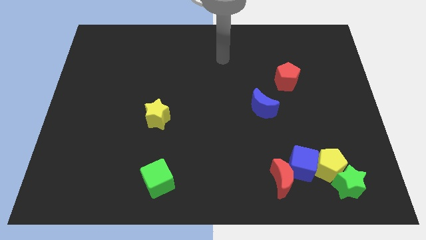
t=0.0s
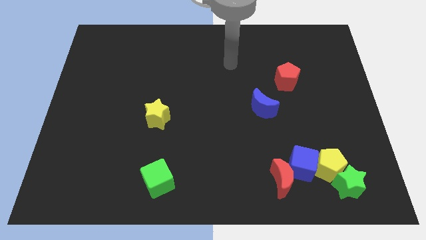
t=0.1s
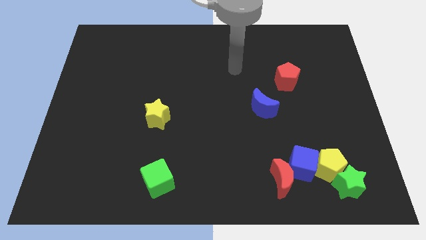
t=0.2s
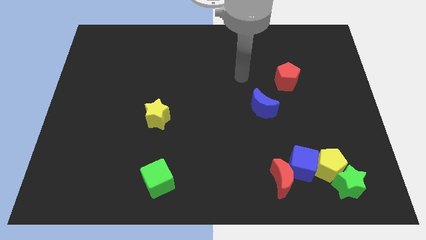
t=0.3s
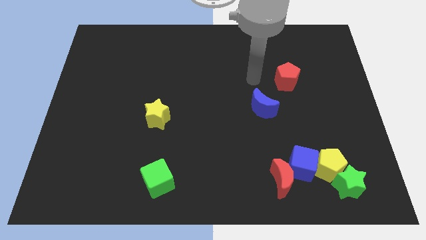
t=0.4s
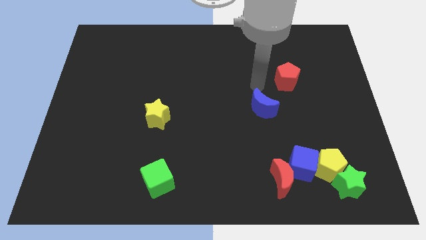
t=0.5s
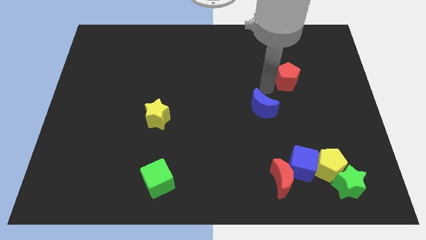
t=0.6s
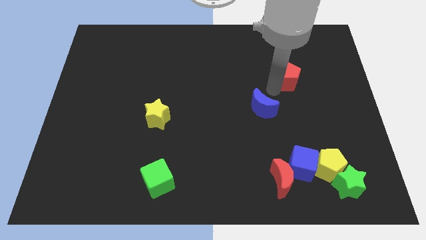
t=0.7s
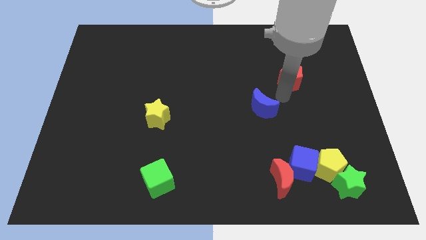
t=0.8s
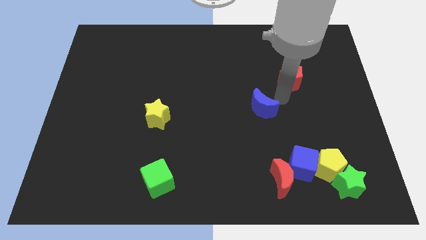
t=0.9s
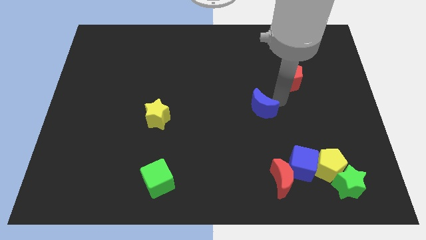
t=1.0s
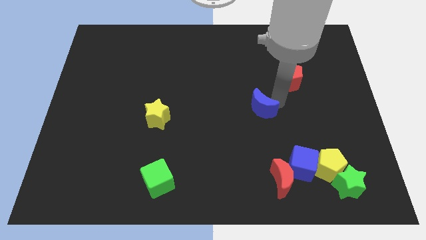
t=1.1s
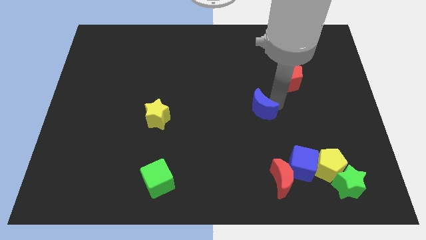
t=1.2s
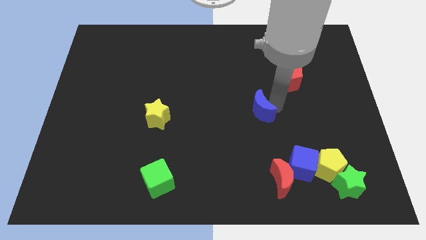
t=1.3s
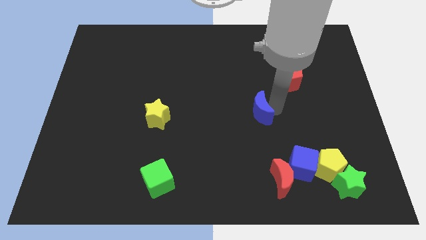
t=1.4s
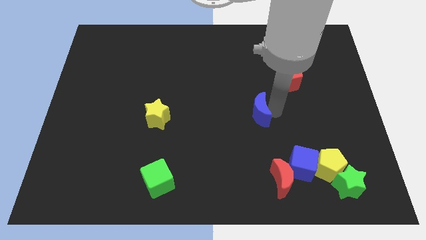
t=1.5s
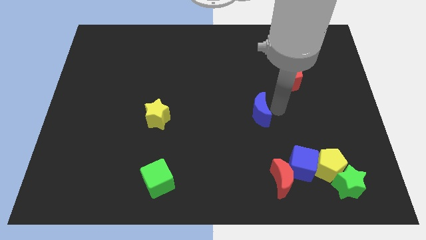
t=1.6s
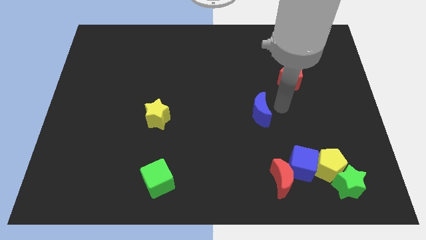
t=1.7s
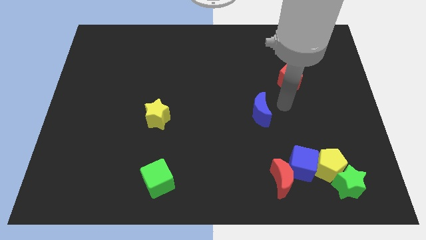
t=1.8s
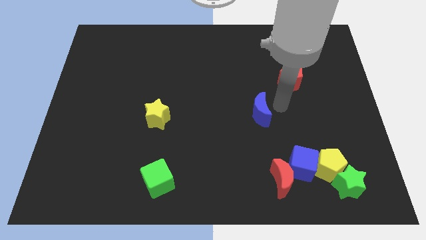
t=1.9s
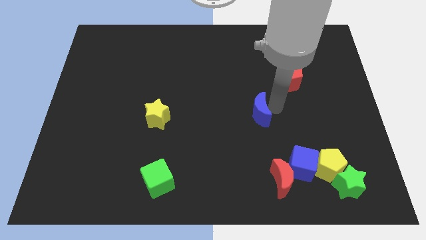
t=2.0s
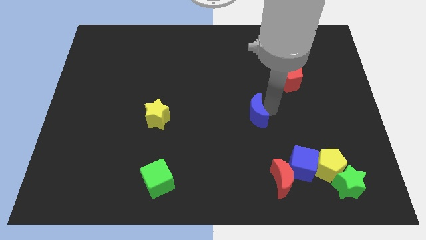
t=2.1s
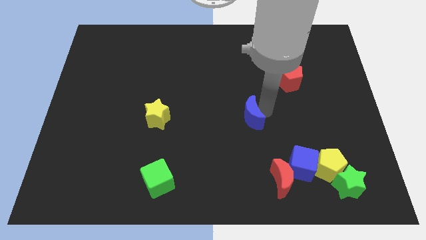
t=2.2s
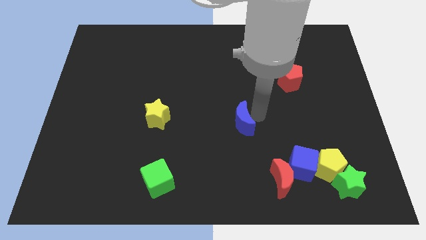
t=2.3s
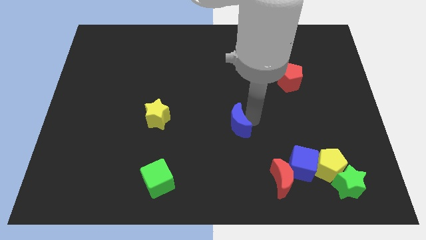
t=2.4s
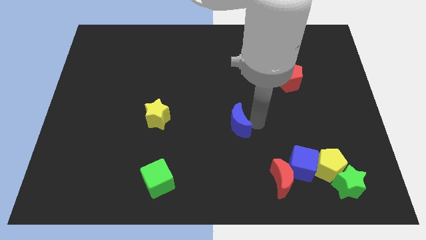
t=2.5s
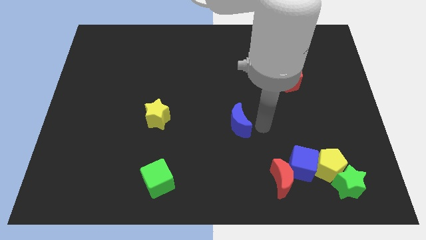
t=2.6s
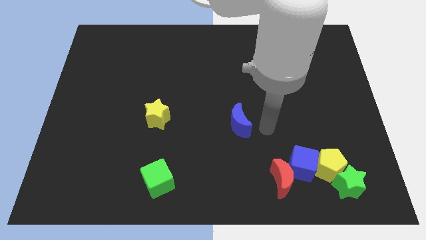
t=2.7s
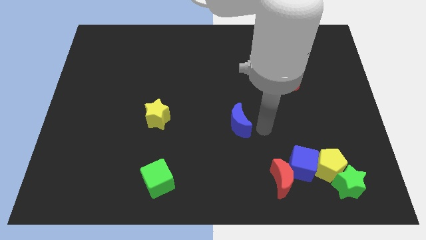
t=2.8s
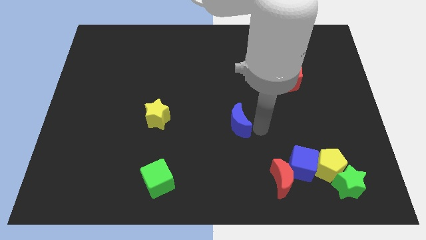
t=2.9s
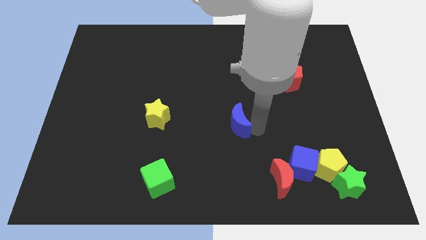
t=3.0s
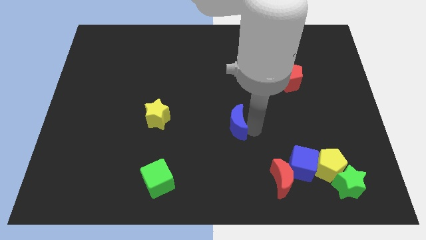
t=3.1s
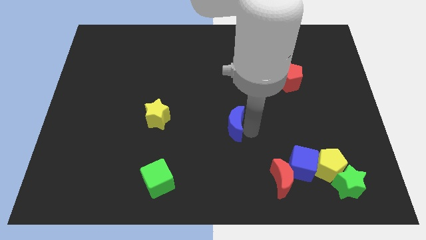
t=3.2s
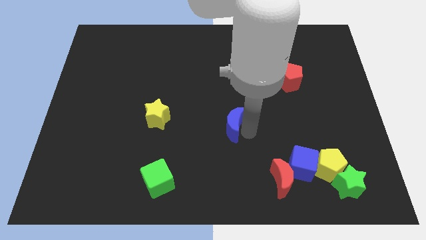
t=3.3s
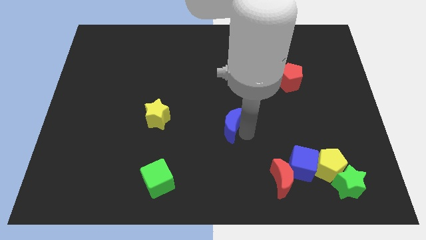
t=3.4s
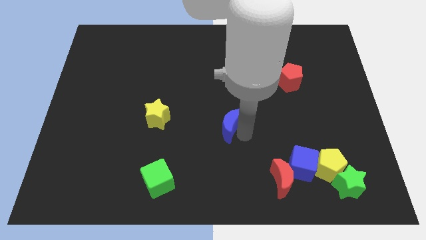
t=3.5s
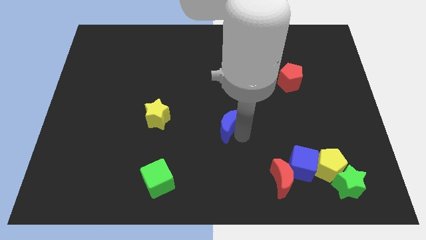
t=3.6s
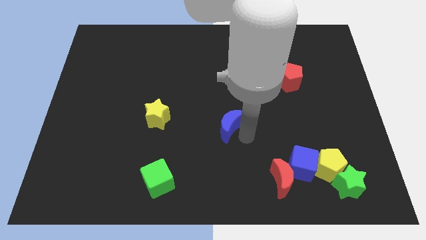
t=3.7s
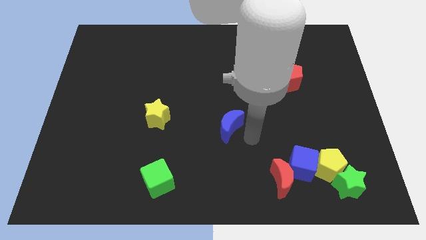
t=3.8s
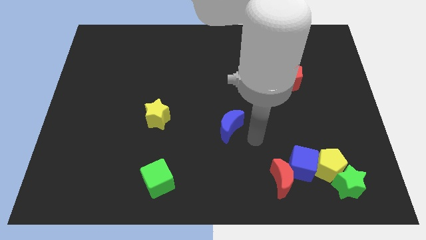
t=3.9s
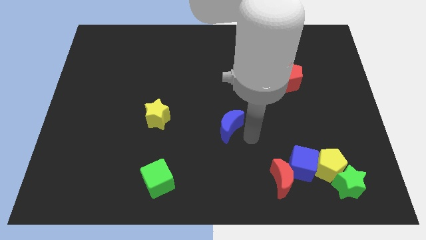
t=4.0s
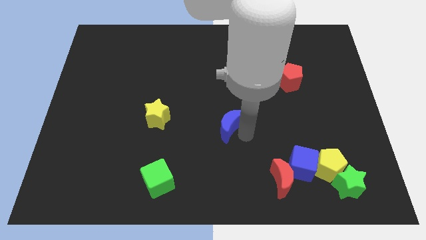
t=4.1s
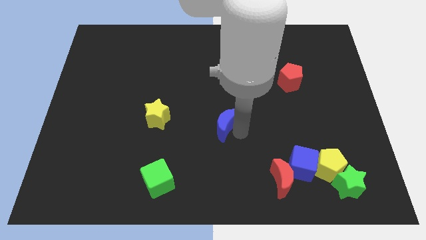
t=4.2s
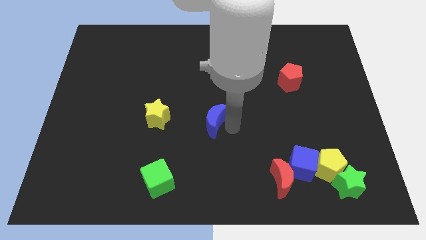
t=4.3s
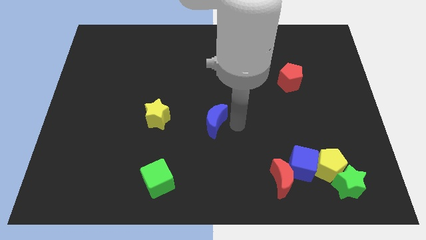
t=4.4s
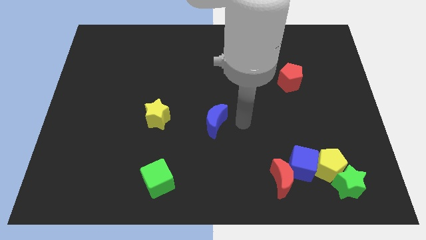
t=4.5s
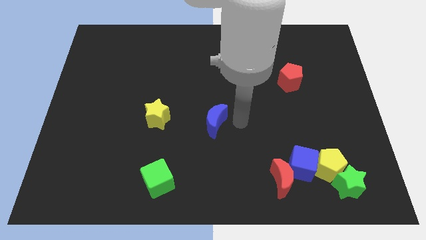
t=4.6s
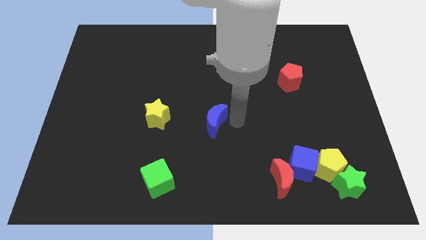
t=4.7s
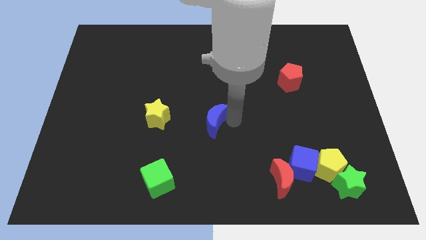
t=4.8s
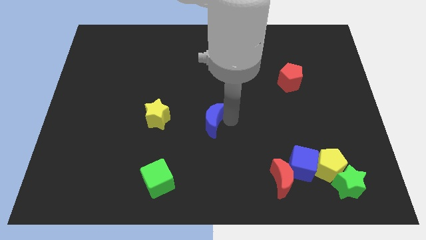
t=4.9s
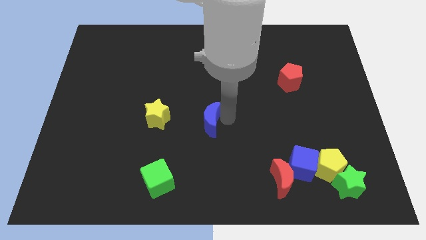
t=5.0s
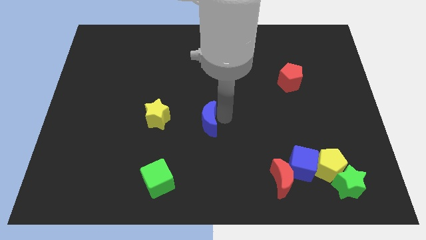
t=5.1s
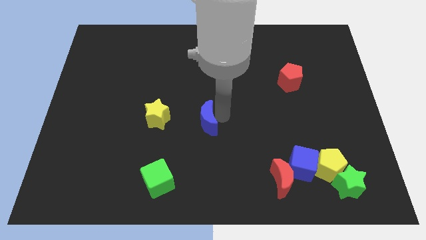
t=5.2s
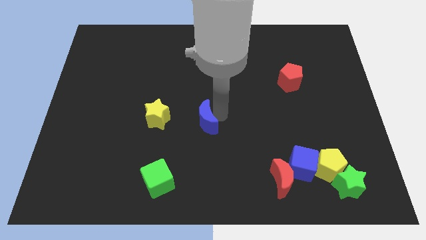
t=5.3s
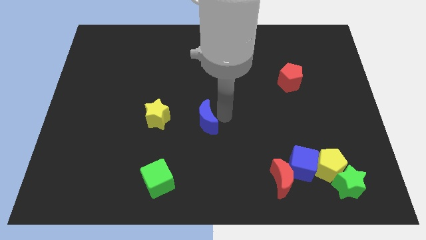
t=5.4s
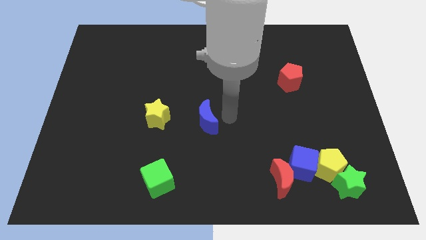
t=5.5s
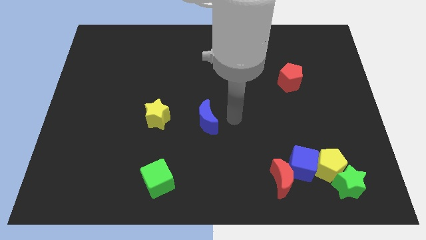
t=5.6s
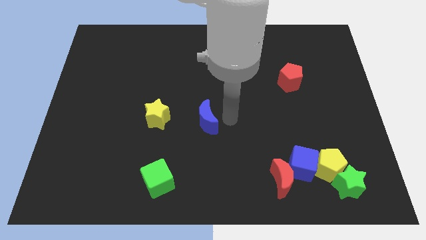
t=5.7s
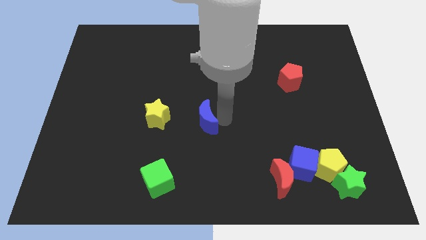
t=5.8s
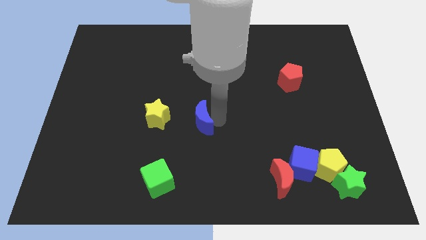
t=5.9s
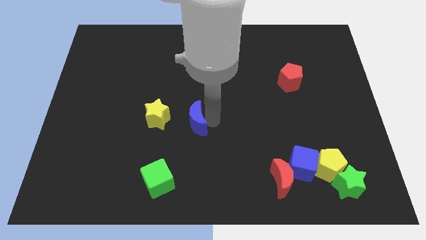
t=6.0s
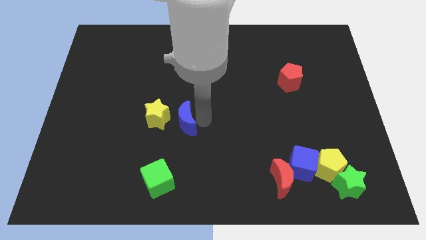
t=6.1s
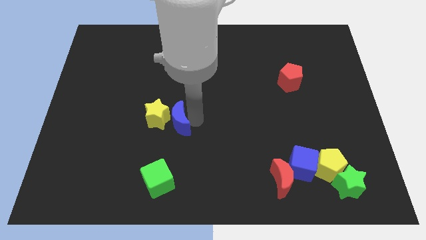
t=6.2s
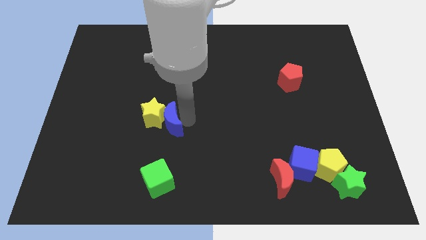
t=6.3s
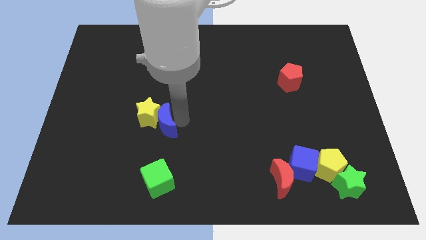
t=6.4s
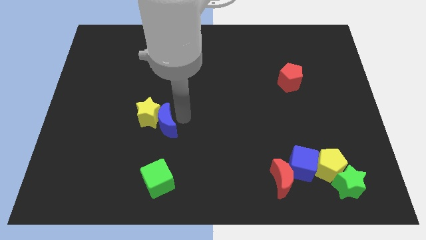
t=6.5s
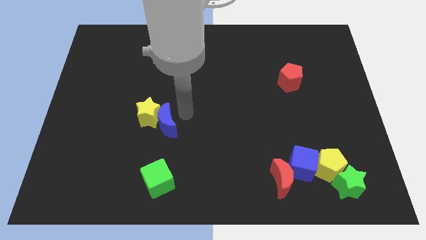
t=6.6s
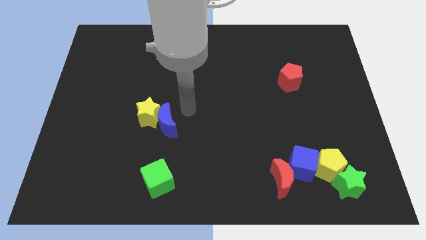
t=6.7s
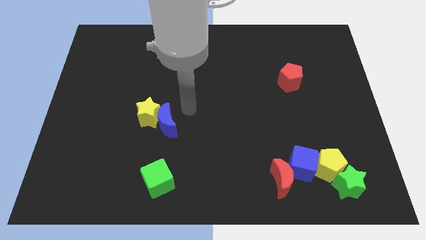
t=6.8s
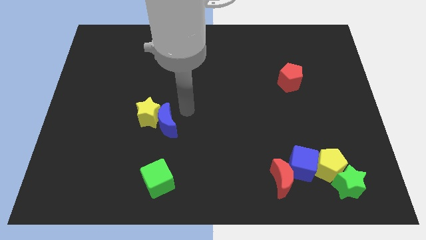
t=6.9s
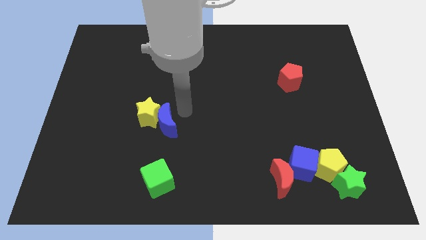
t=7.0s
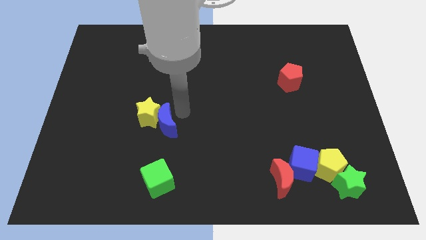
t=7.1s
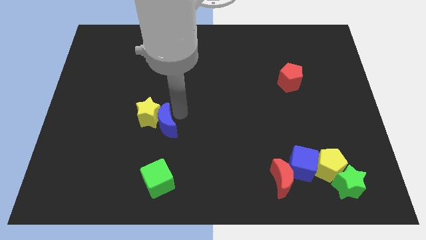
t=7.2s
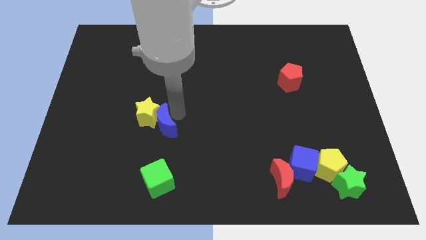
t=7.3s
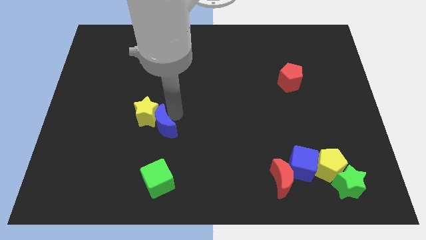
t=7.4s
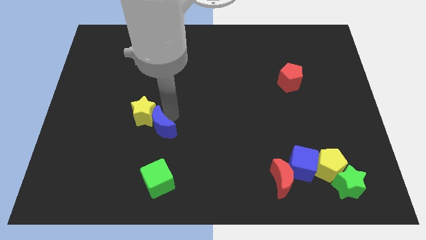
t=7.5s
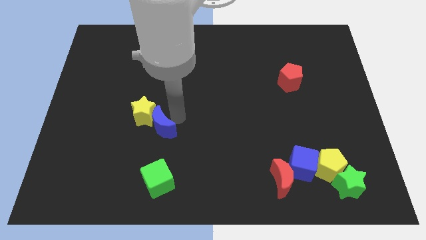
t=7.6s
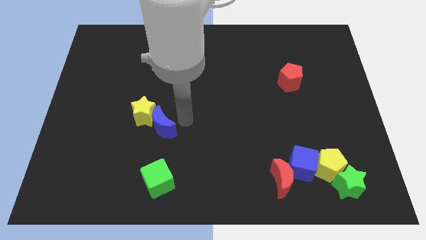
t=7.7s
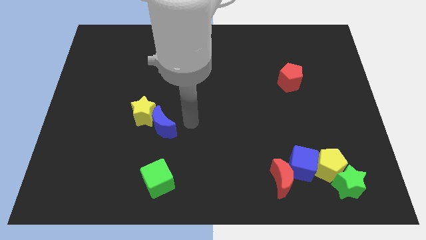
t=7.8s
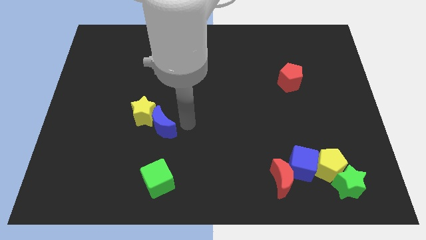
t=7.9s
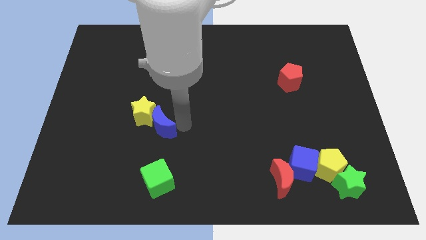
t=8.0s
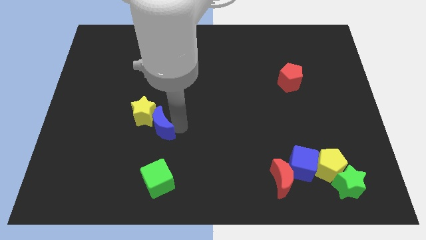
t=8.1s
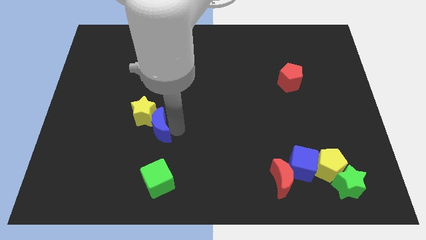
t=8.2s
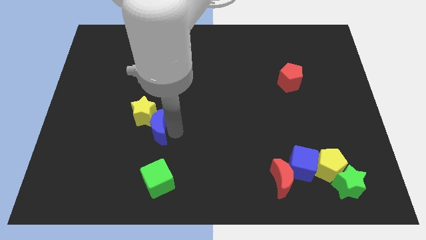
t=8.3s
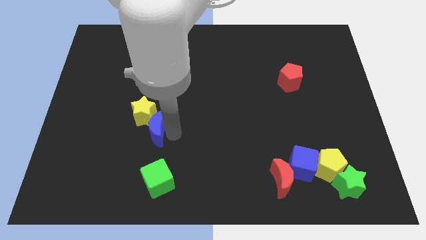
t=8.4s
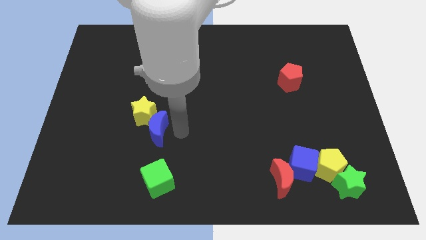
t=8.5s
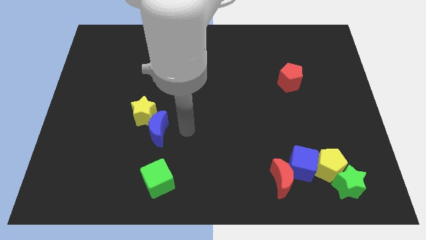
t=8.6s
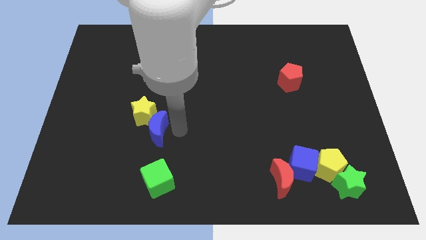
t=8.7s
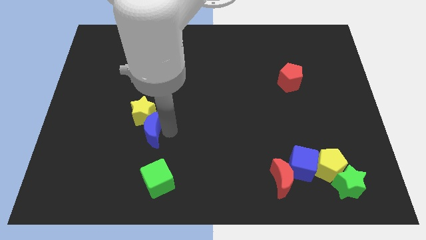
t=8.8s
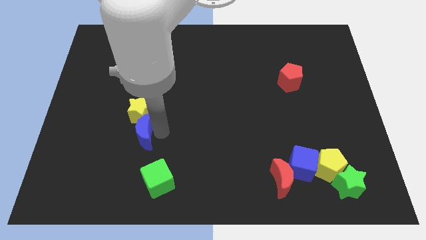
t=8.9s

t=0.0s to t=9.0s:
put the blue moon to the bottom left side of the yellow star
